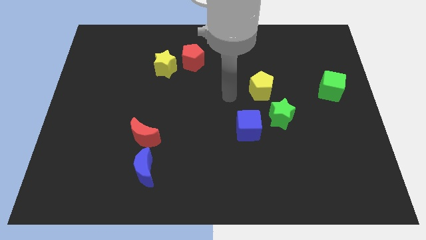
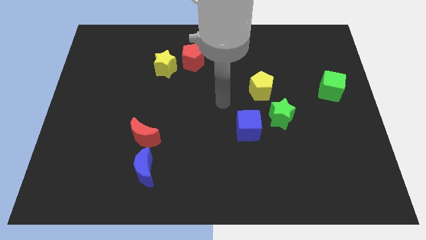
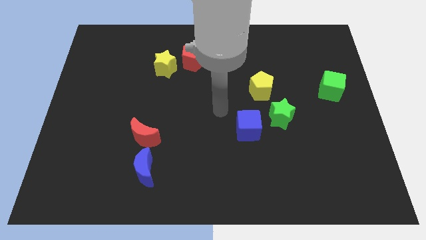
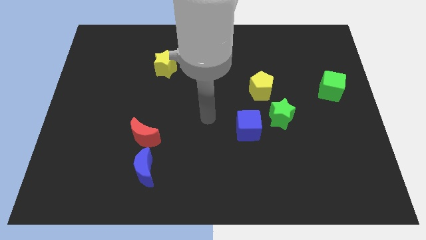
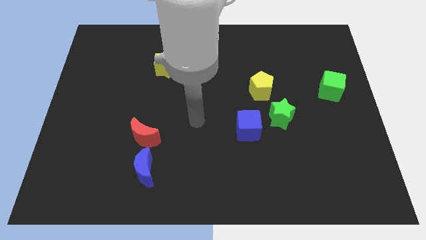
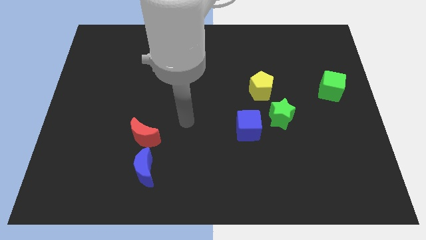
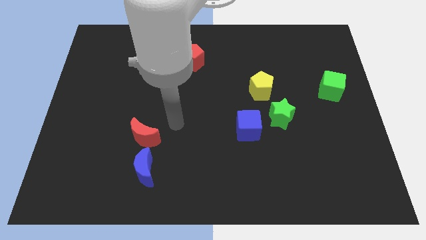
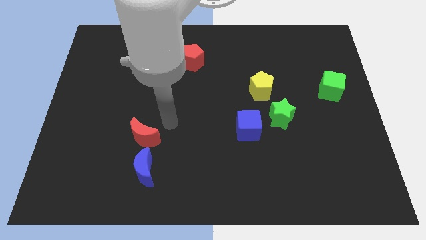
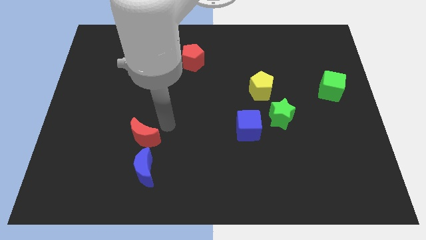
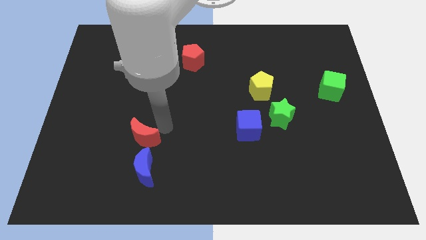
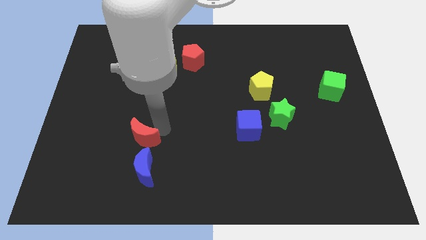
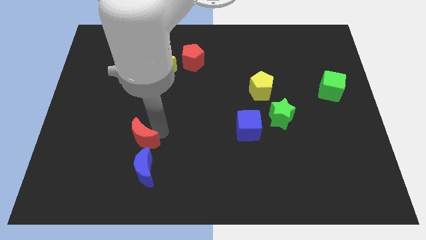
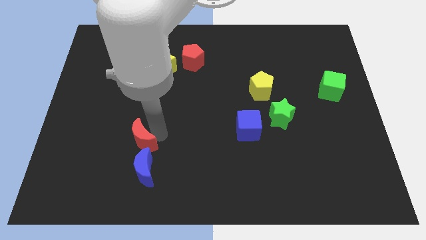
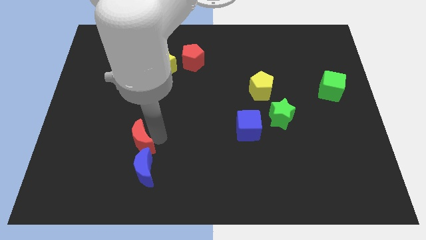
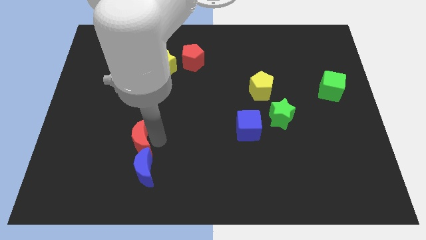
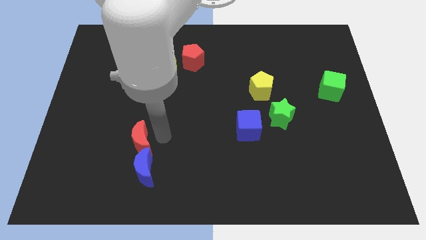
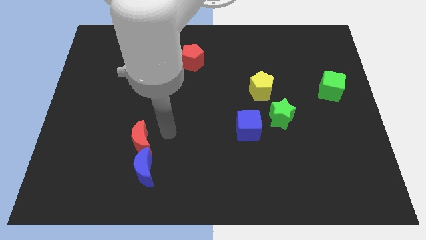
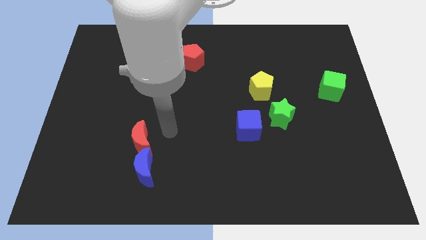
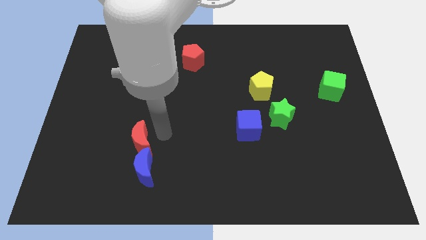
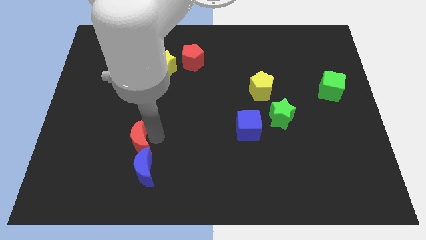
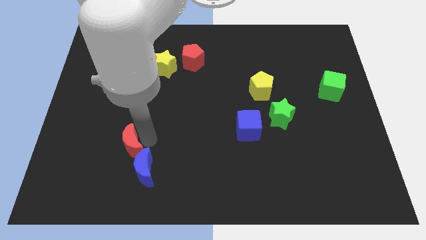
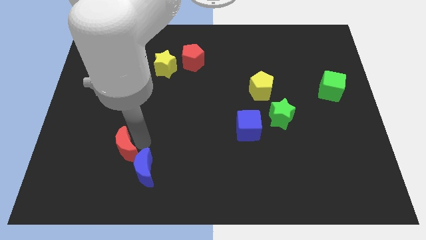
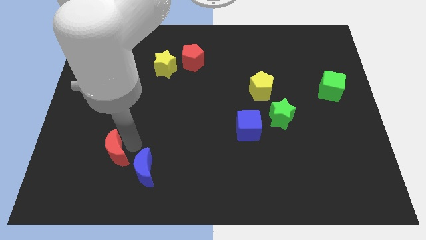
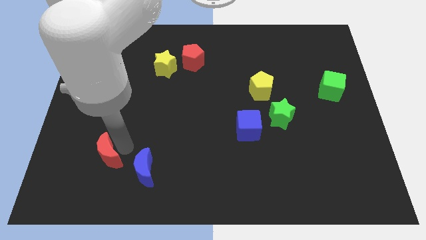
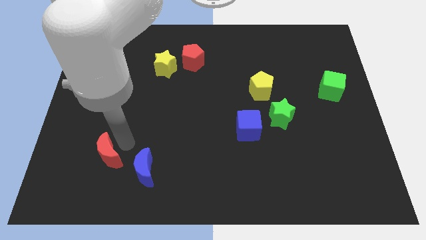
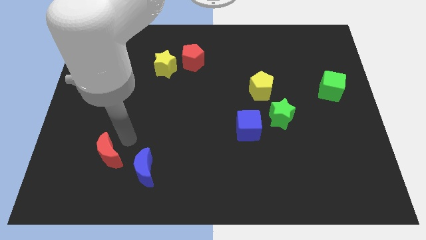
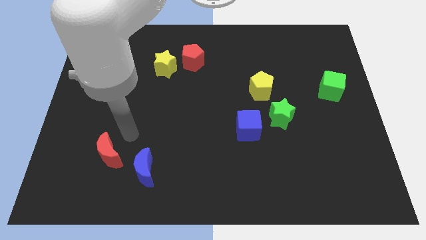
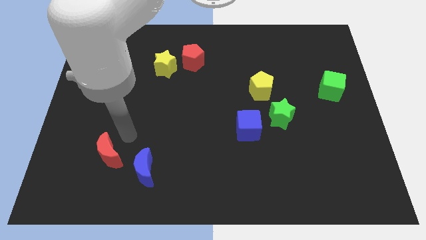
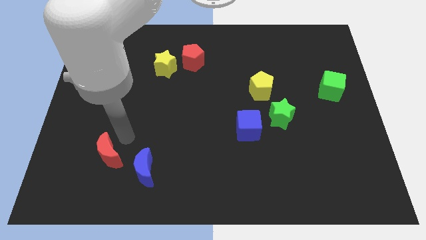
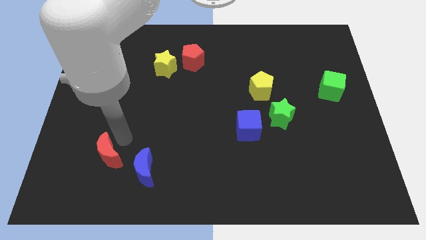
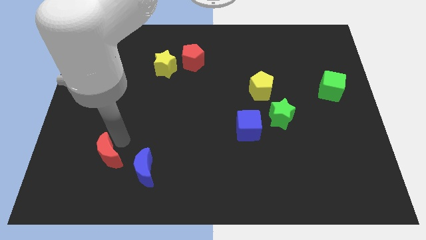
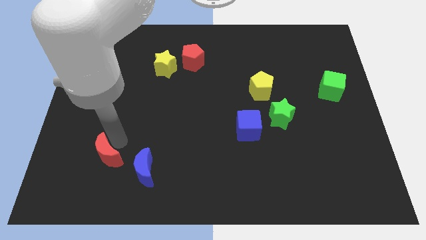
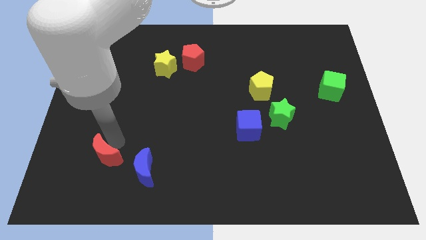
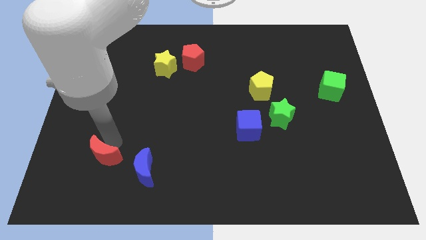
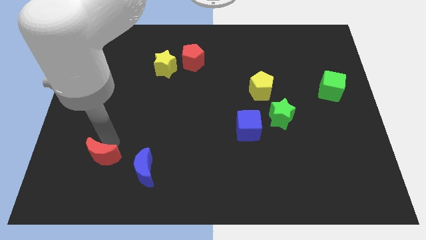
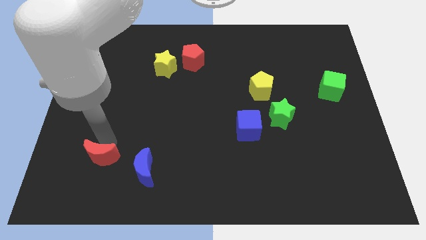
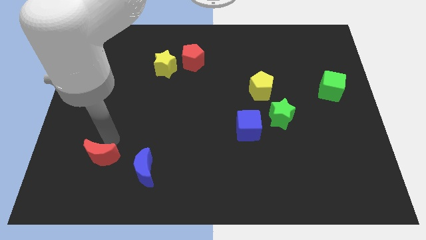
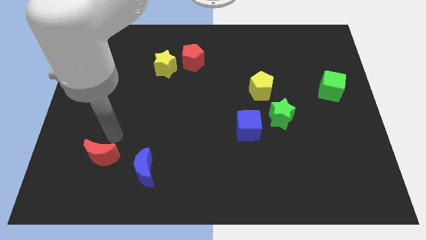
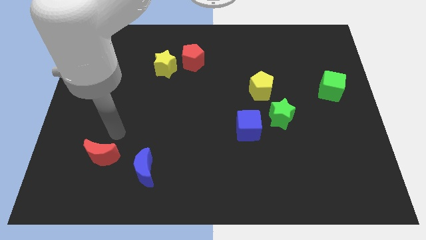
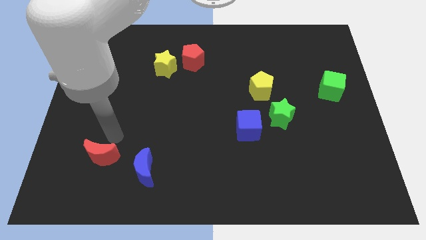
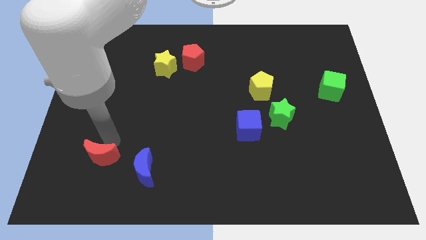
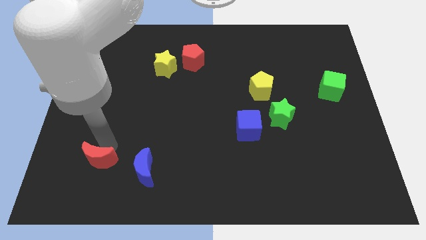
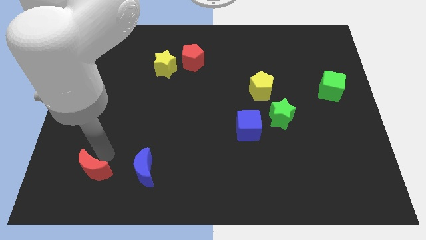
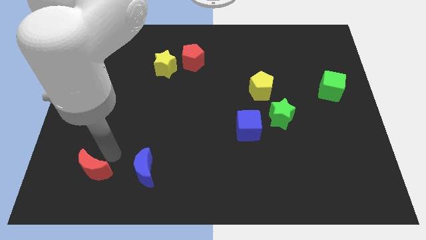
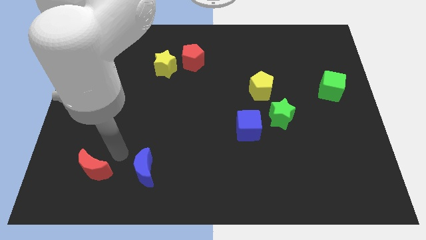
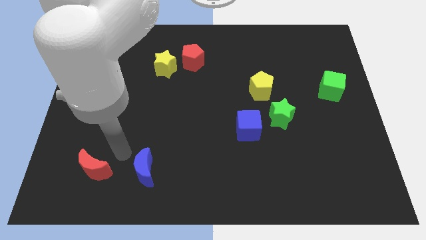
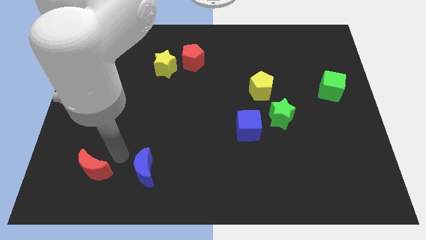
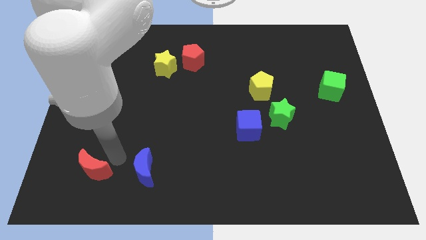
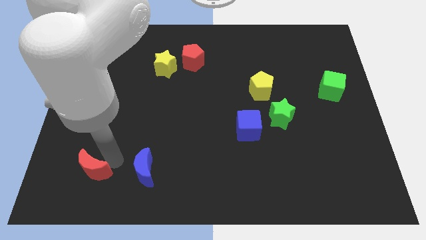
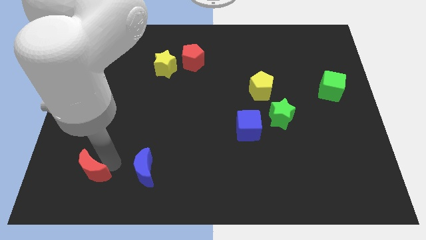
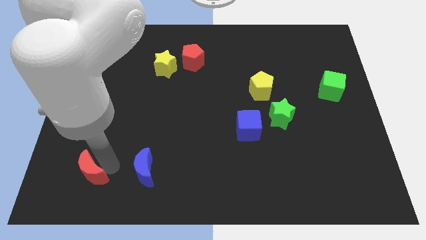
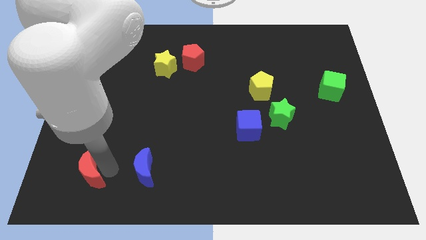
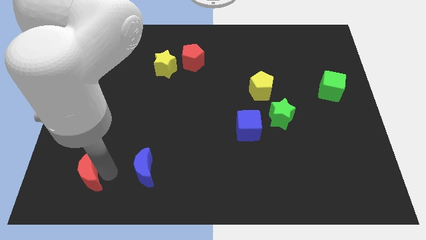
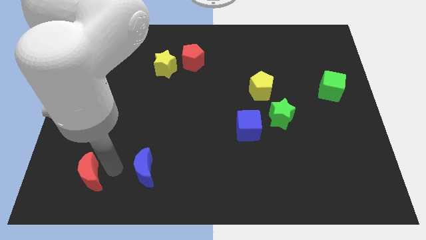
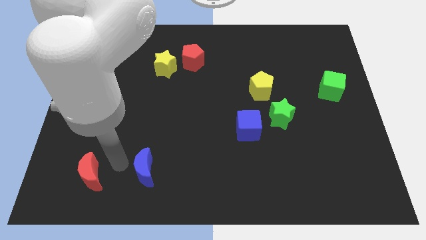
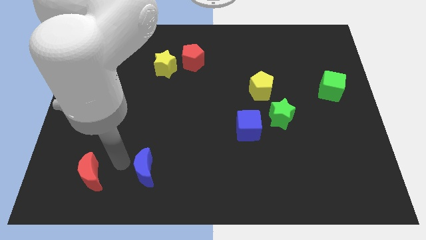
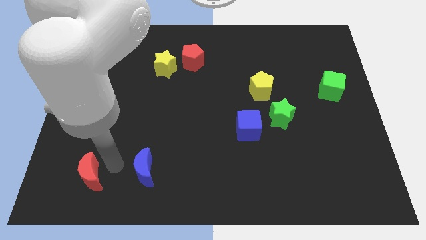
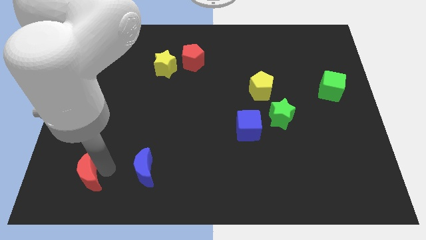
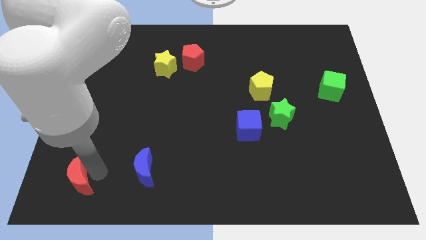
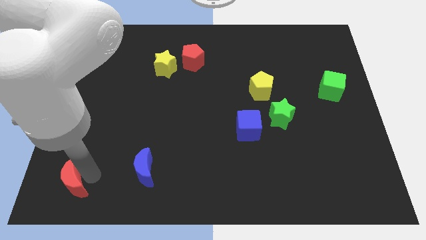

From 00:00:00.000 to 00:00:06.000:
put the red moon to the bottom left of the board

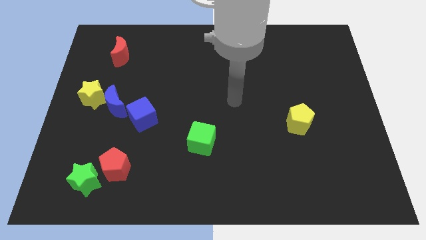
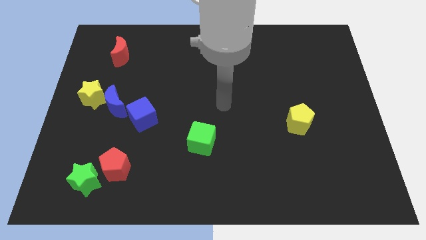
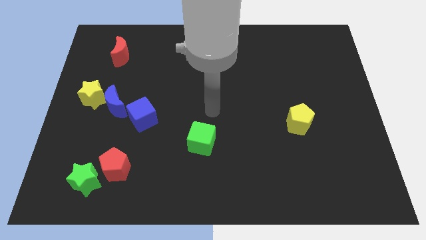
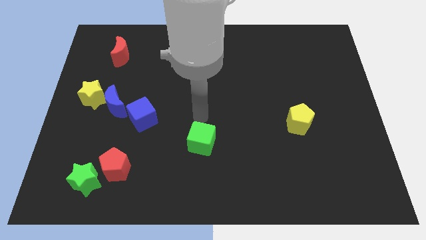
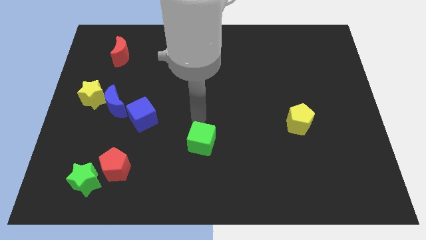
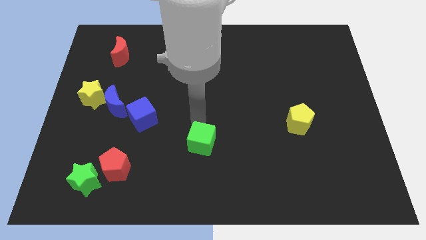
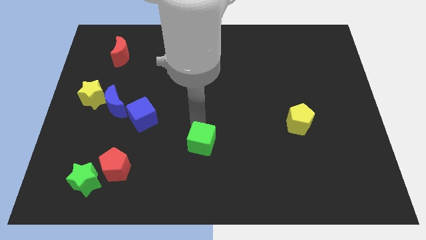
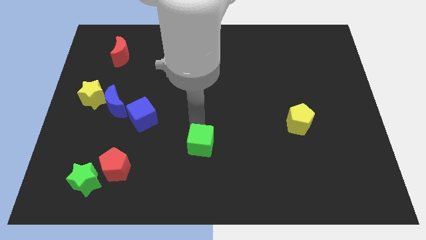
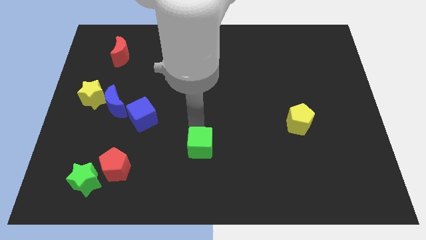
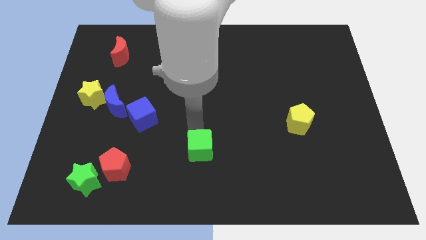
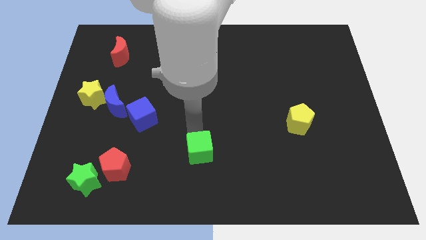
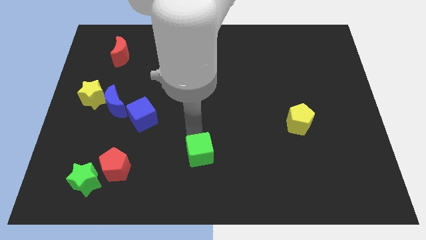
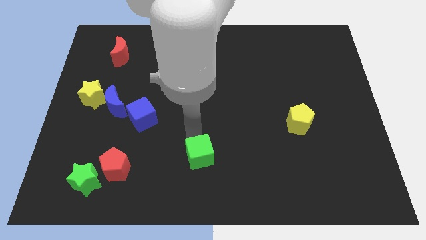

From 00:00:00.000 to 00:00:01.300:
push the green cube to the bottom
